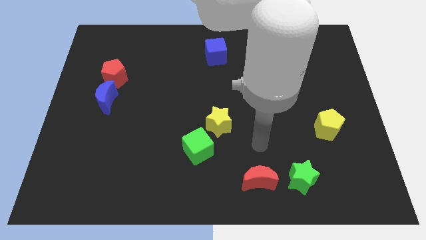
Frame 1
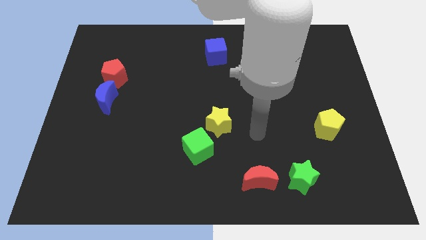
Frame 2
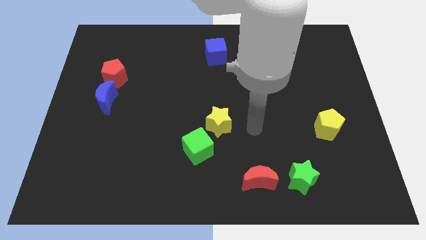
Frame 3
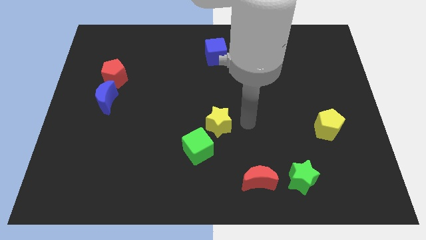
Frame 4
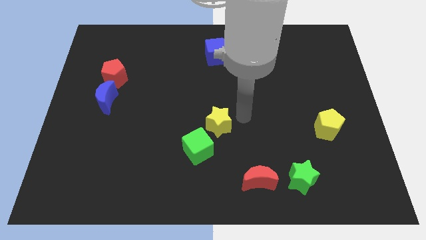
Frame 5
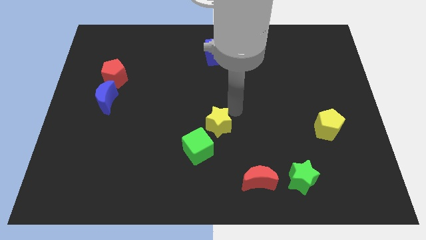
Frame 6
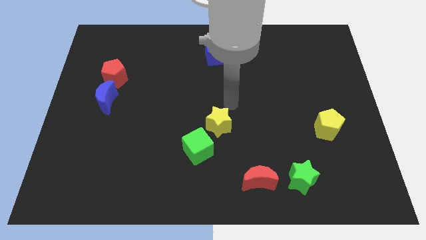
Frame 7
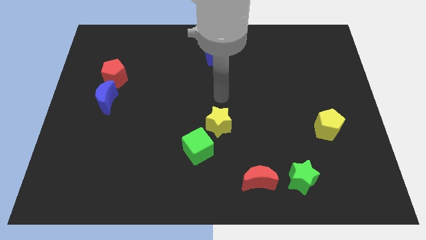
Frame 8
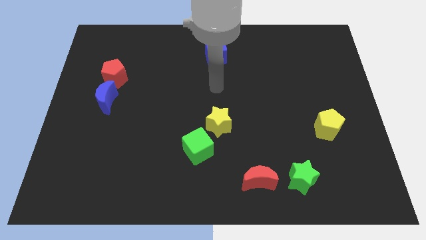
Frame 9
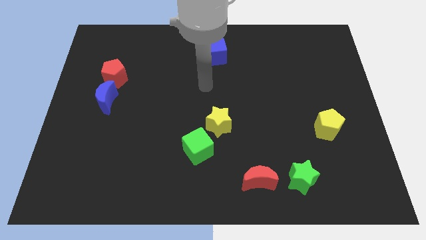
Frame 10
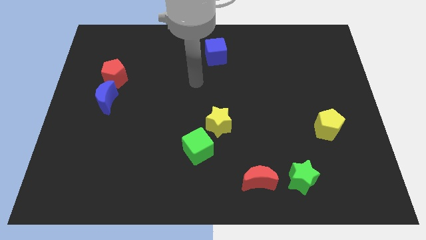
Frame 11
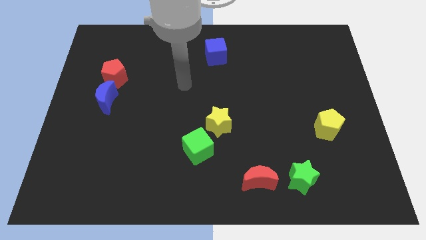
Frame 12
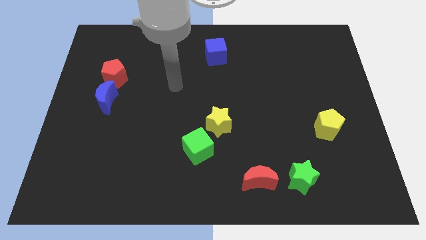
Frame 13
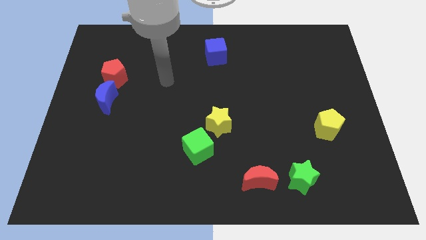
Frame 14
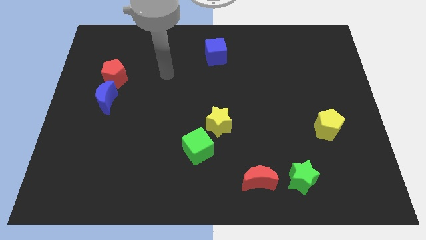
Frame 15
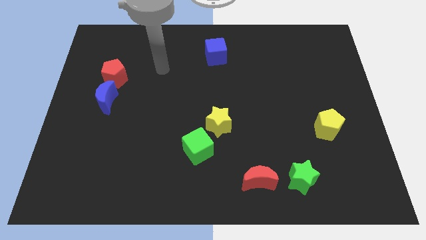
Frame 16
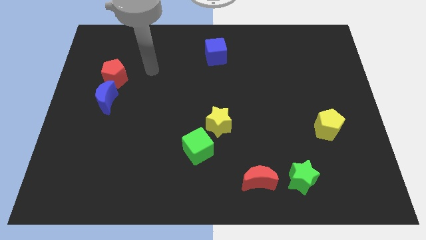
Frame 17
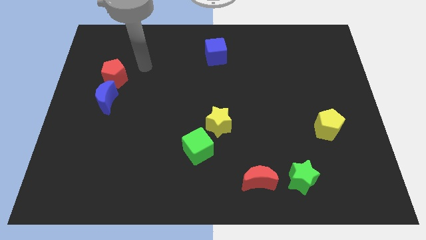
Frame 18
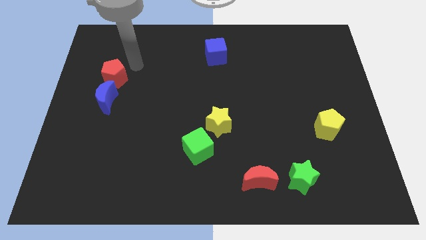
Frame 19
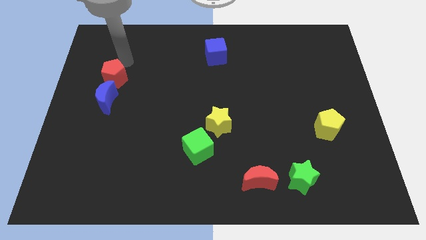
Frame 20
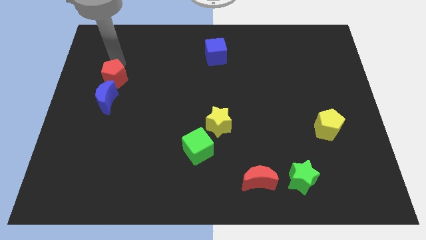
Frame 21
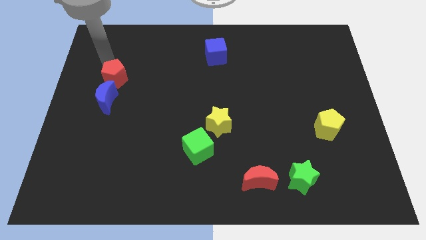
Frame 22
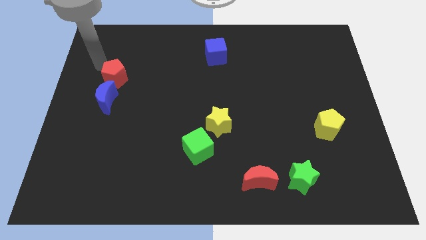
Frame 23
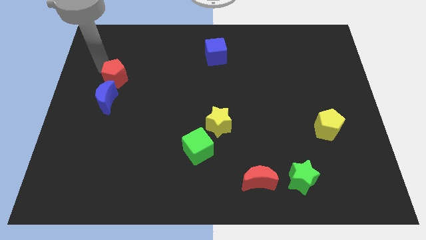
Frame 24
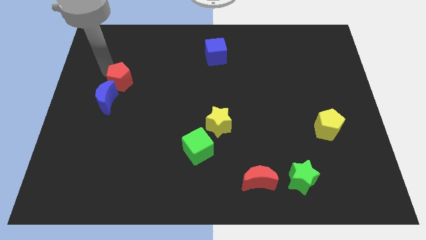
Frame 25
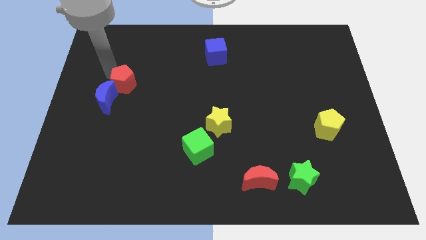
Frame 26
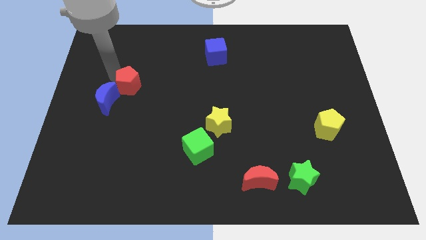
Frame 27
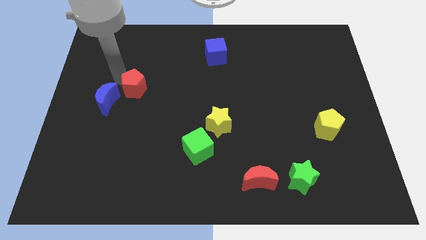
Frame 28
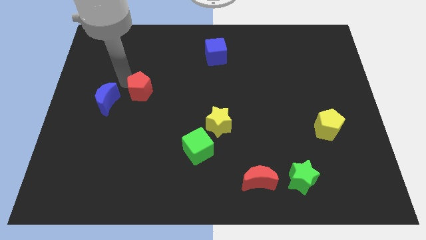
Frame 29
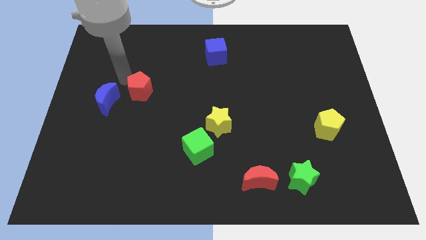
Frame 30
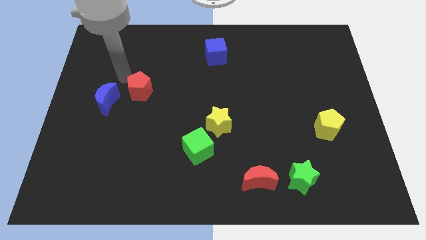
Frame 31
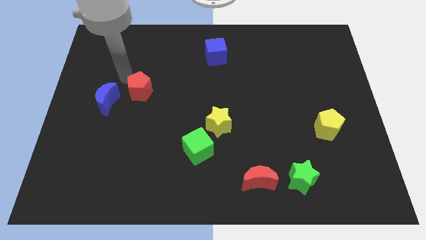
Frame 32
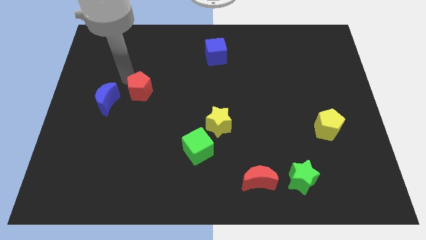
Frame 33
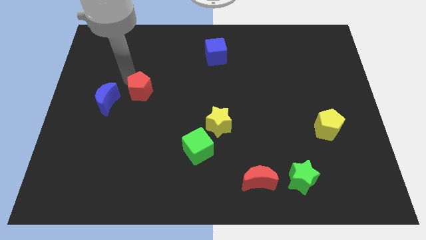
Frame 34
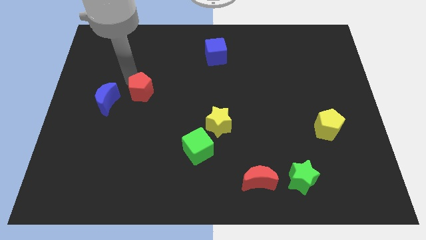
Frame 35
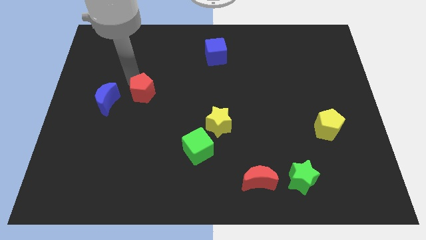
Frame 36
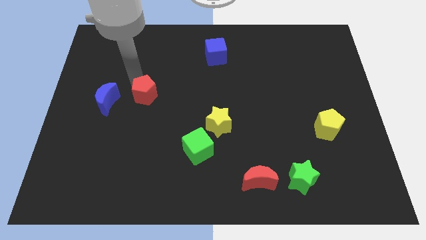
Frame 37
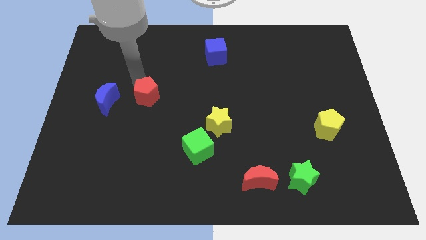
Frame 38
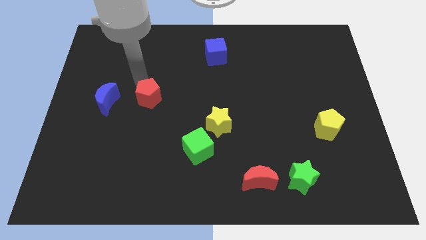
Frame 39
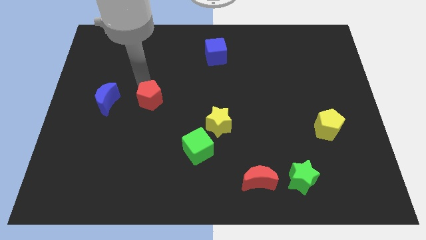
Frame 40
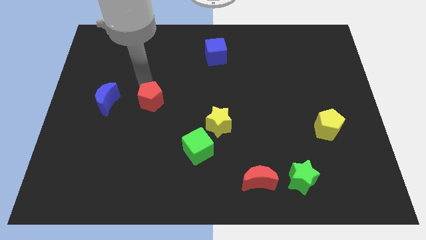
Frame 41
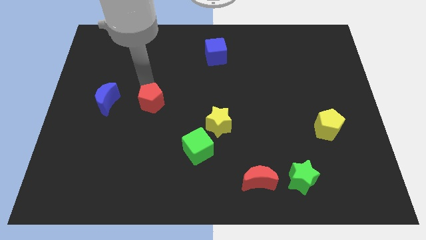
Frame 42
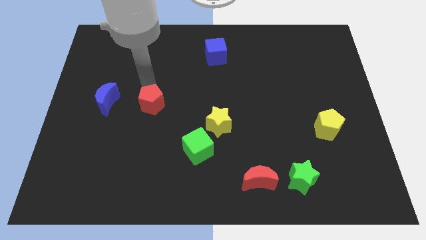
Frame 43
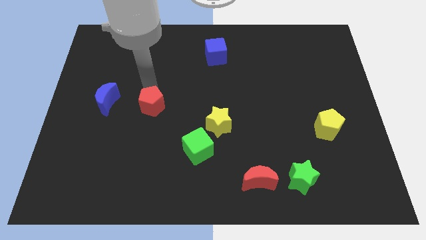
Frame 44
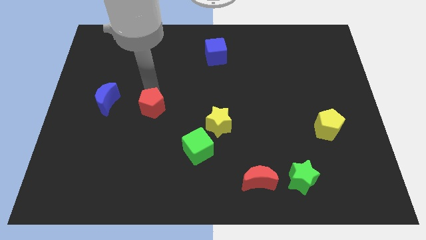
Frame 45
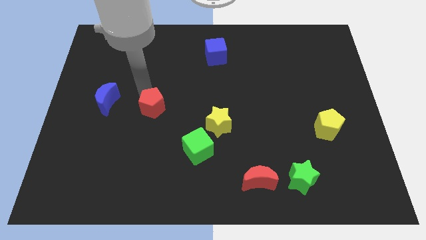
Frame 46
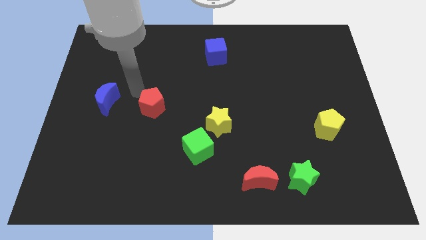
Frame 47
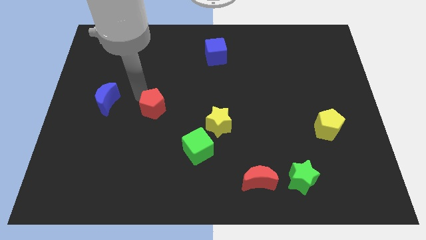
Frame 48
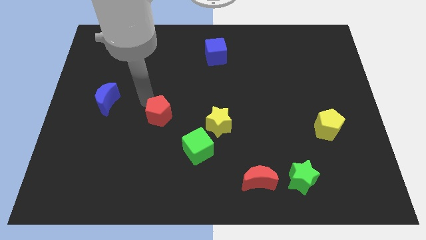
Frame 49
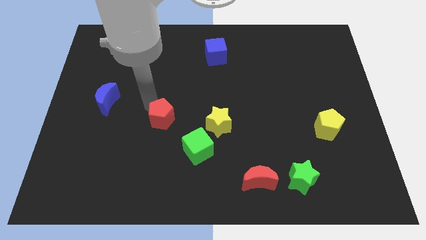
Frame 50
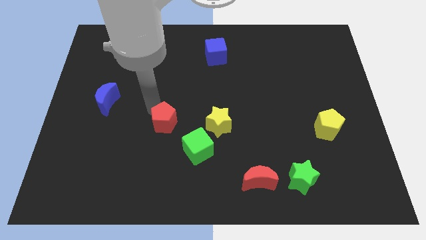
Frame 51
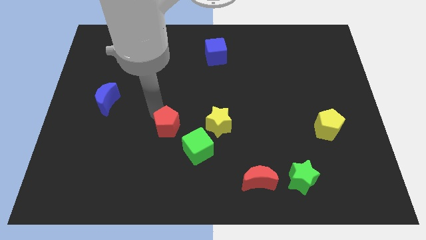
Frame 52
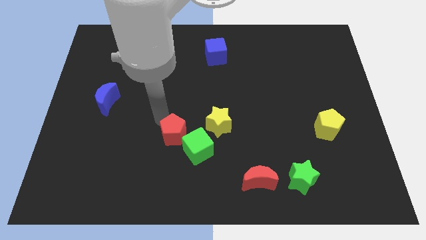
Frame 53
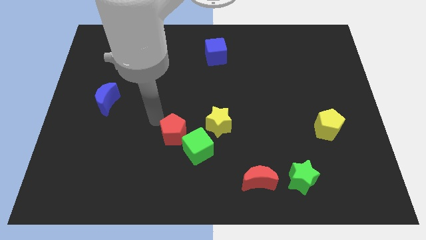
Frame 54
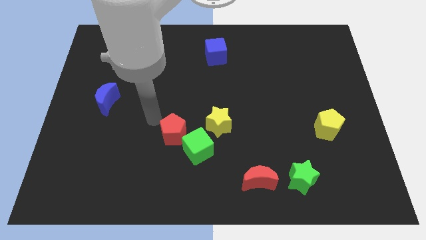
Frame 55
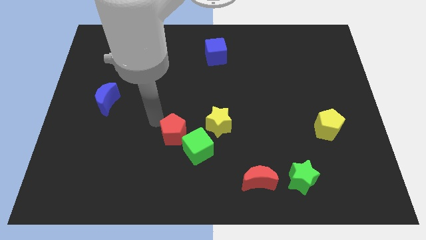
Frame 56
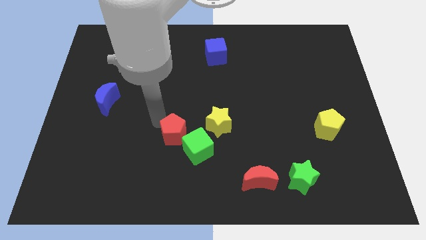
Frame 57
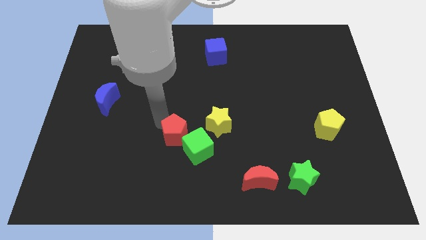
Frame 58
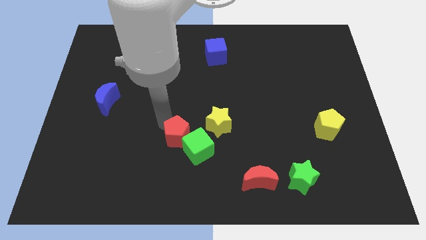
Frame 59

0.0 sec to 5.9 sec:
put the red pentagon next to the green cube

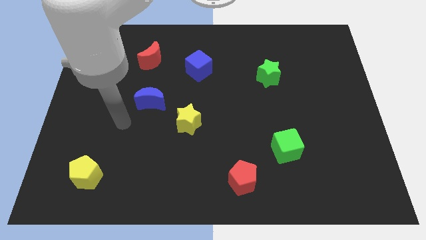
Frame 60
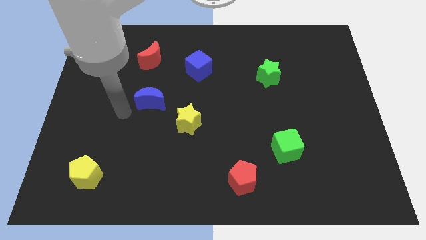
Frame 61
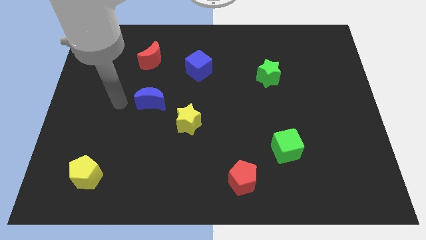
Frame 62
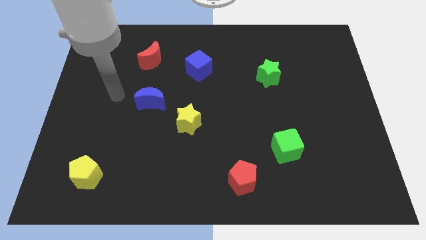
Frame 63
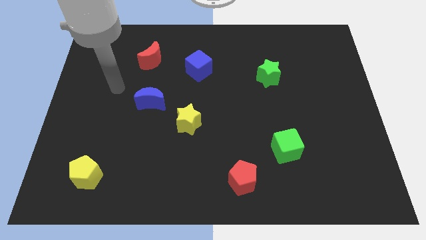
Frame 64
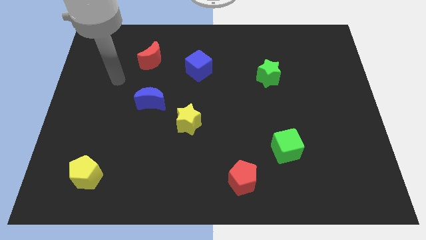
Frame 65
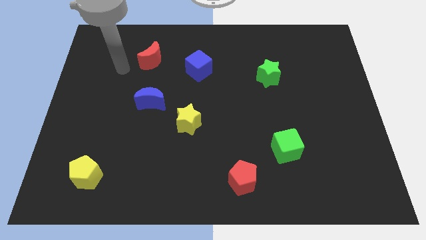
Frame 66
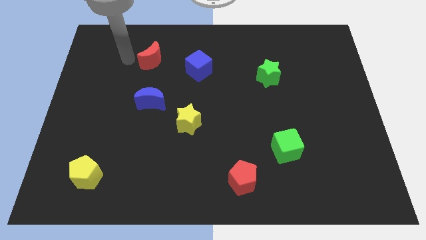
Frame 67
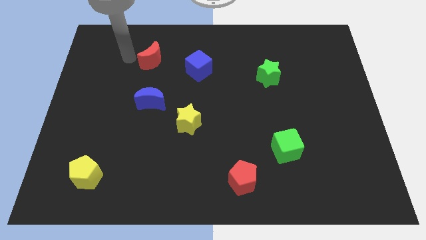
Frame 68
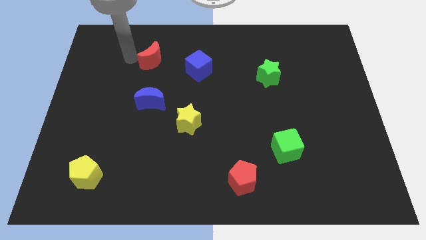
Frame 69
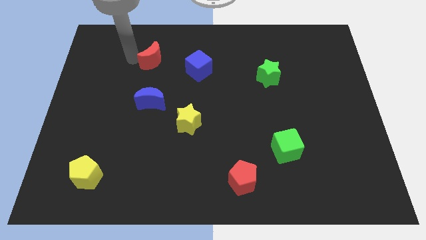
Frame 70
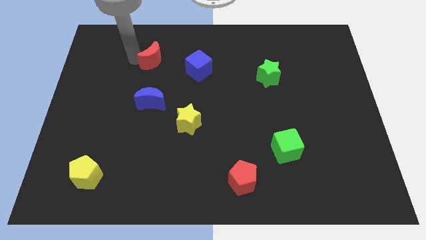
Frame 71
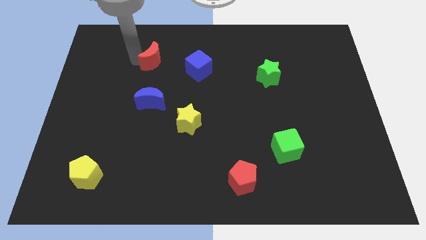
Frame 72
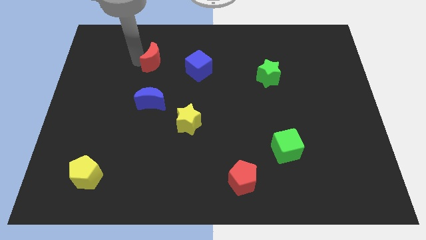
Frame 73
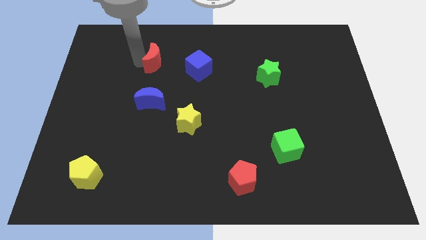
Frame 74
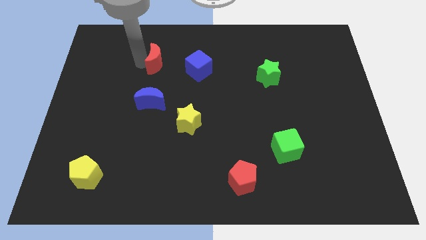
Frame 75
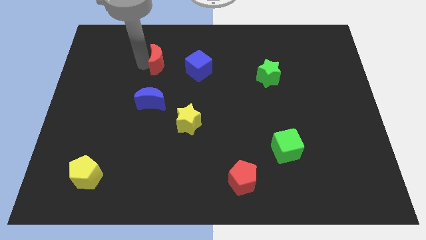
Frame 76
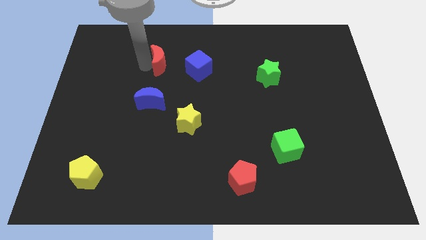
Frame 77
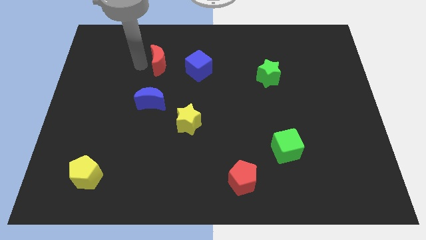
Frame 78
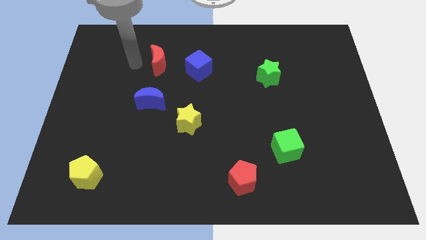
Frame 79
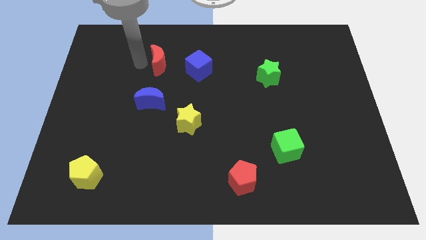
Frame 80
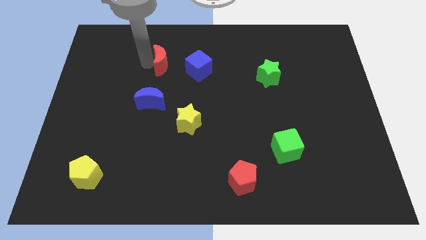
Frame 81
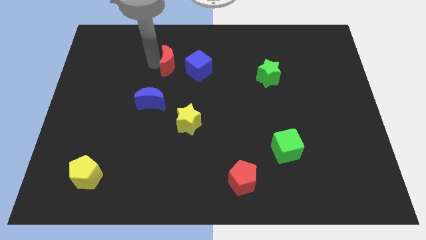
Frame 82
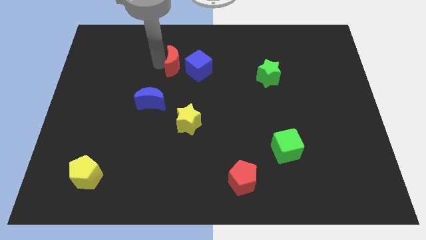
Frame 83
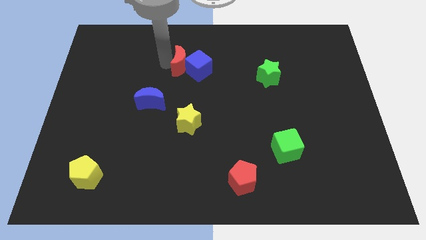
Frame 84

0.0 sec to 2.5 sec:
put the red moon to the blue cube
